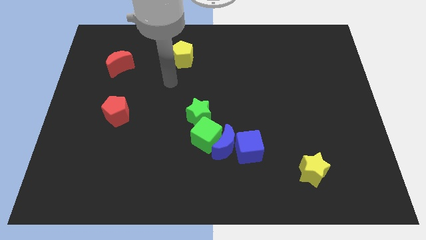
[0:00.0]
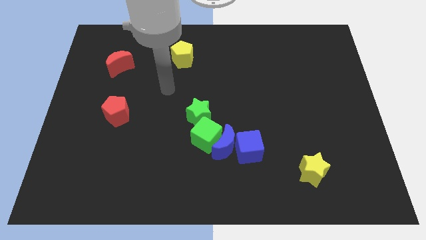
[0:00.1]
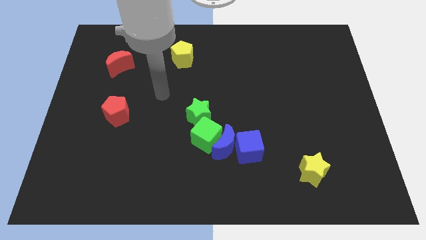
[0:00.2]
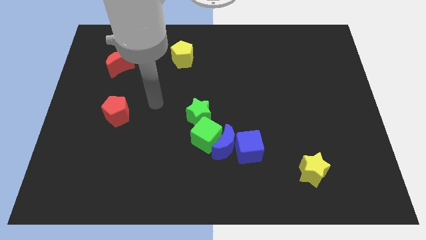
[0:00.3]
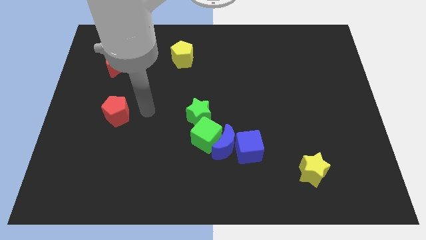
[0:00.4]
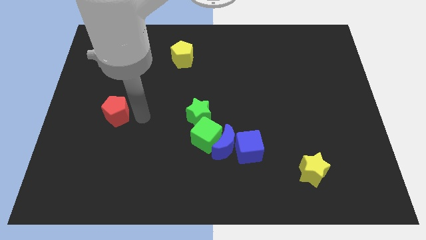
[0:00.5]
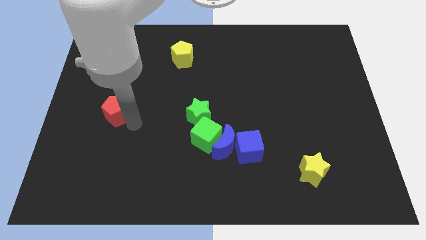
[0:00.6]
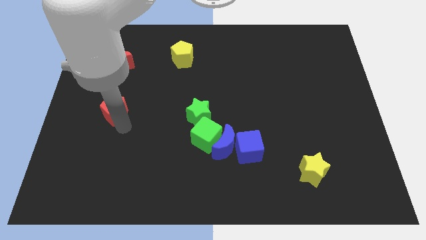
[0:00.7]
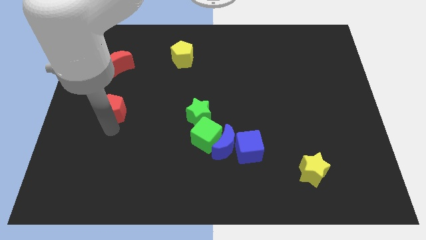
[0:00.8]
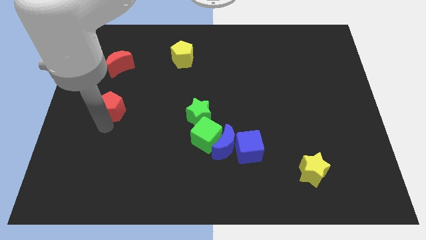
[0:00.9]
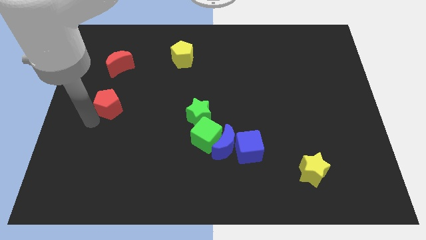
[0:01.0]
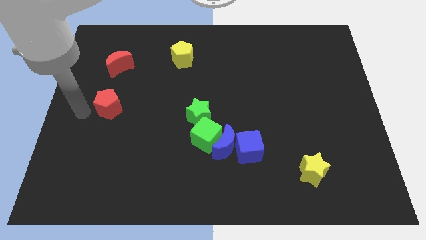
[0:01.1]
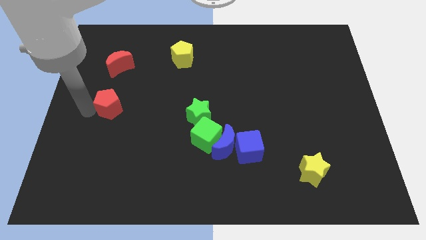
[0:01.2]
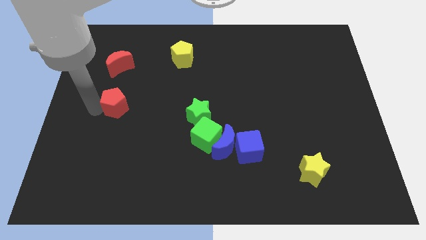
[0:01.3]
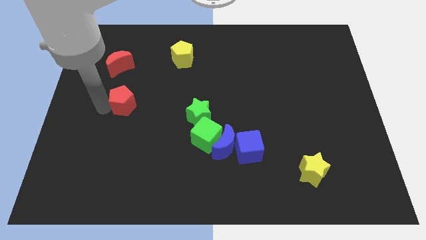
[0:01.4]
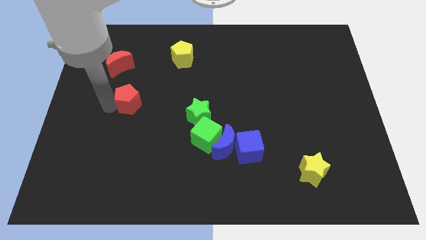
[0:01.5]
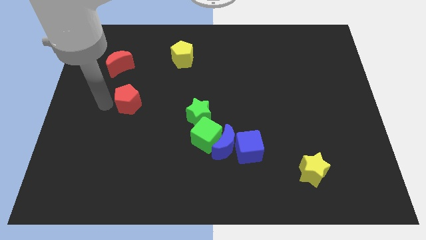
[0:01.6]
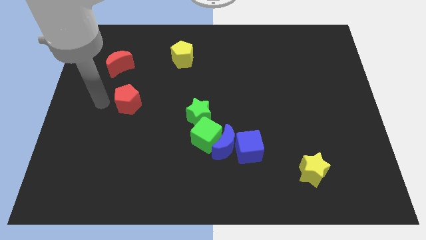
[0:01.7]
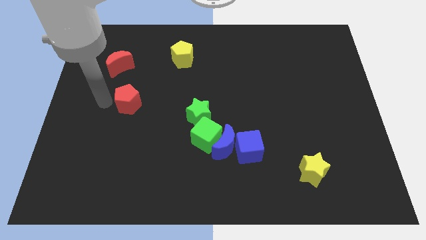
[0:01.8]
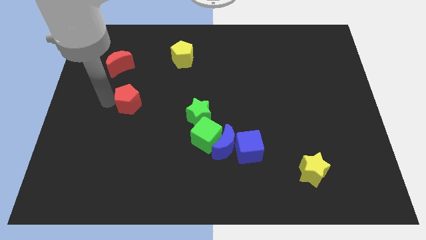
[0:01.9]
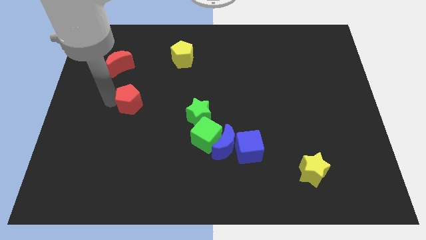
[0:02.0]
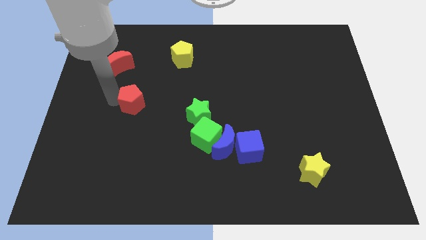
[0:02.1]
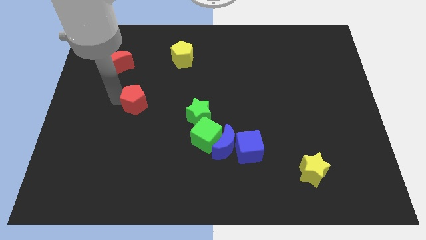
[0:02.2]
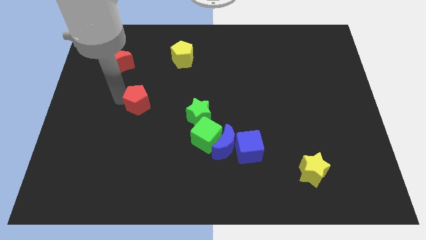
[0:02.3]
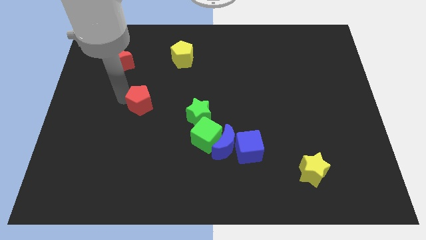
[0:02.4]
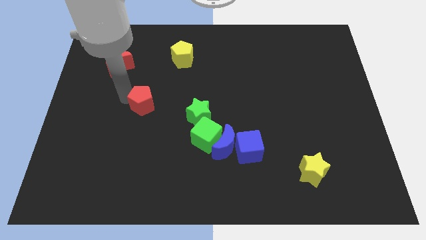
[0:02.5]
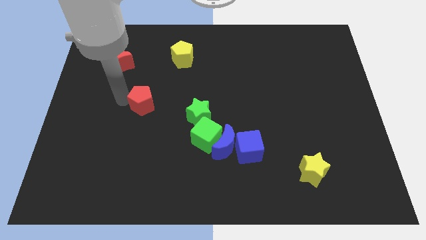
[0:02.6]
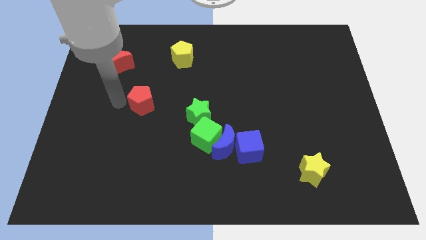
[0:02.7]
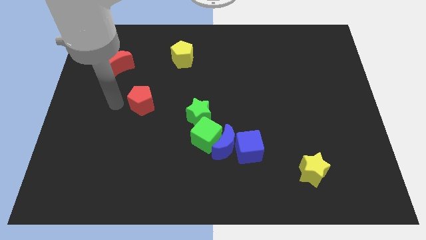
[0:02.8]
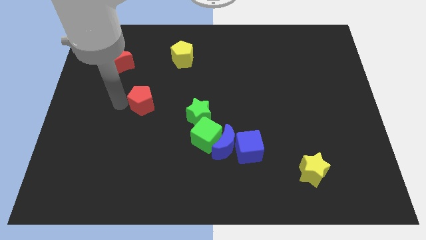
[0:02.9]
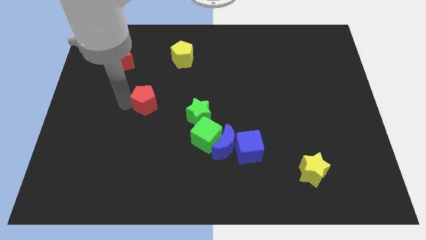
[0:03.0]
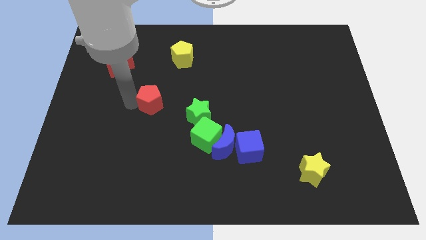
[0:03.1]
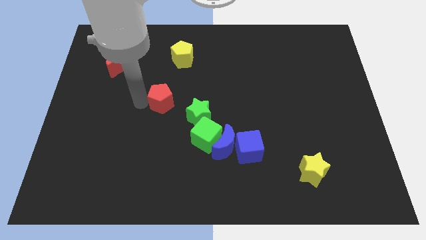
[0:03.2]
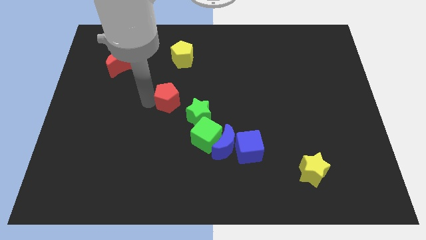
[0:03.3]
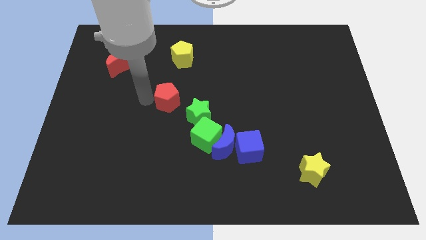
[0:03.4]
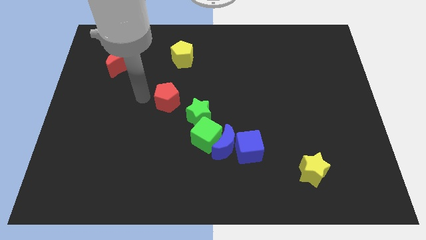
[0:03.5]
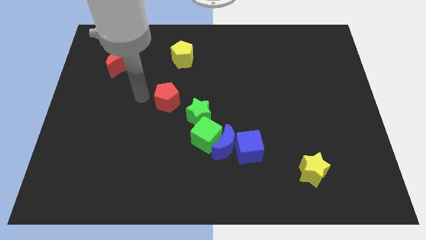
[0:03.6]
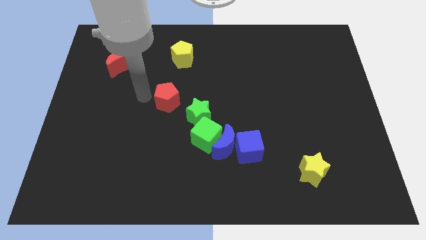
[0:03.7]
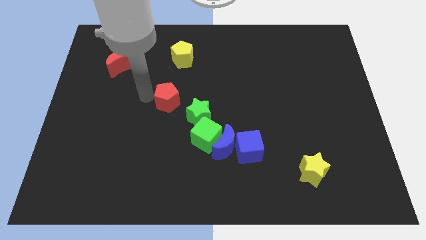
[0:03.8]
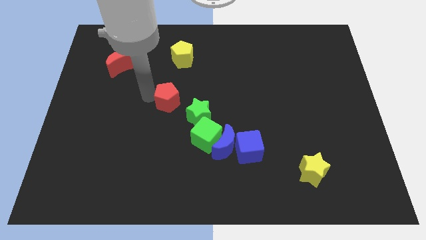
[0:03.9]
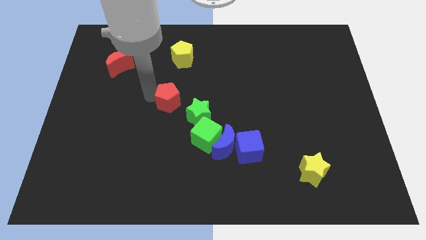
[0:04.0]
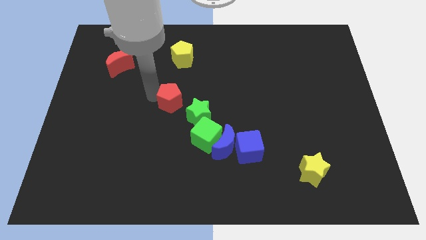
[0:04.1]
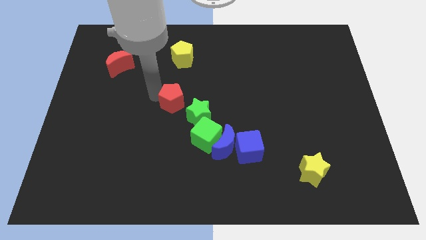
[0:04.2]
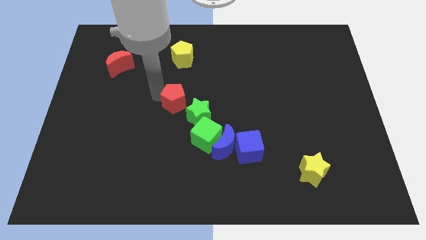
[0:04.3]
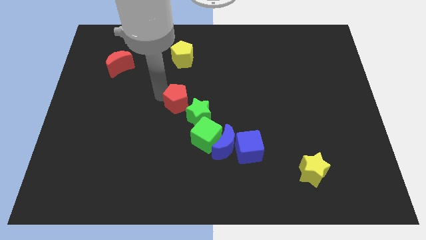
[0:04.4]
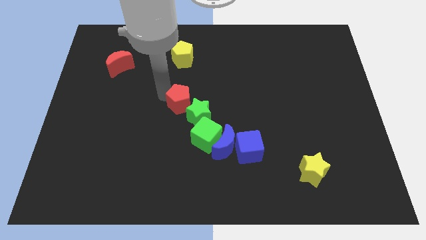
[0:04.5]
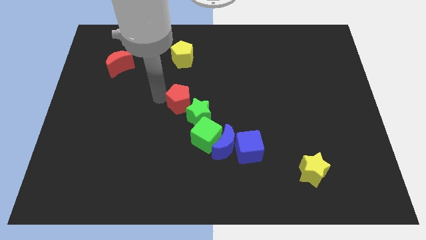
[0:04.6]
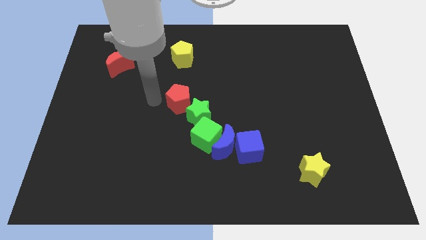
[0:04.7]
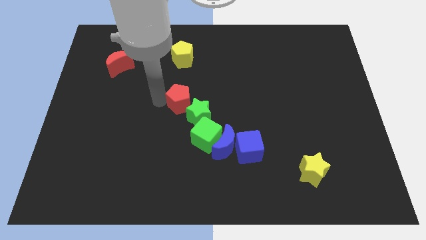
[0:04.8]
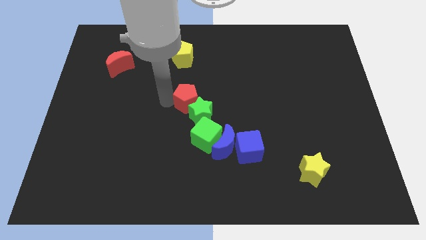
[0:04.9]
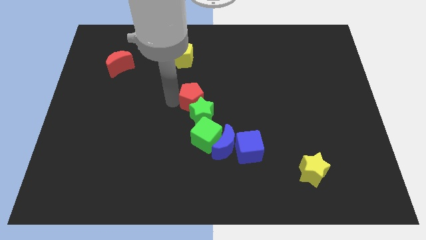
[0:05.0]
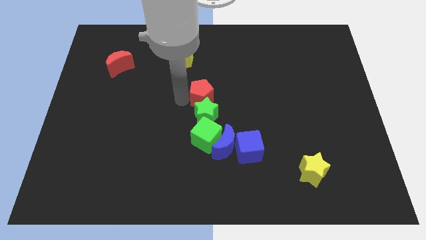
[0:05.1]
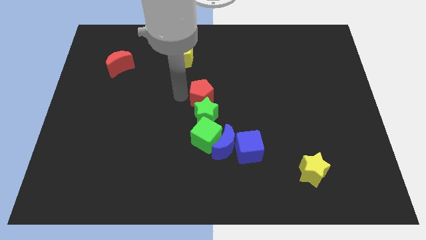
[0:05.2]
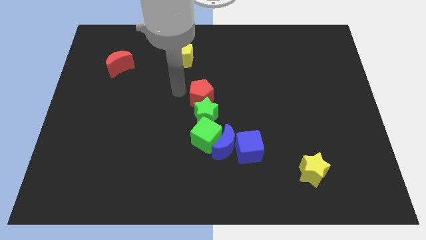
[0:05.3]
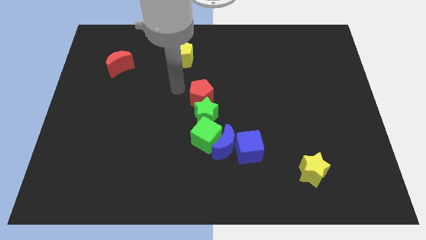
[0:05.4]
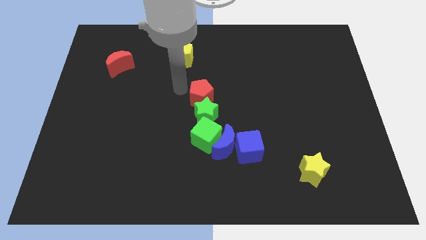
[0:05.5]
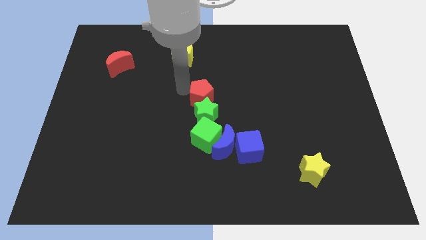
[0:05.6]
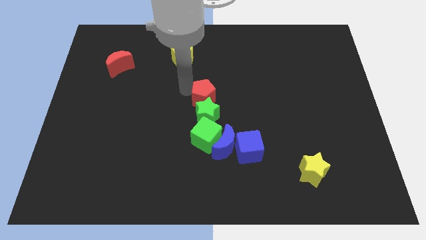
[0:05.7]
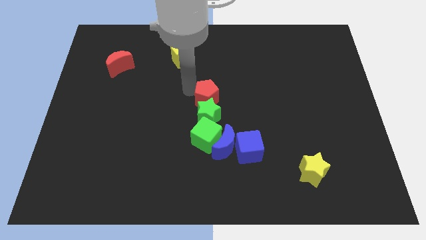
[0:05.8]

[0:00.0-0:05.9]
push the red pentagon to the right

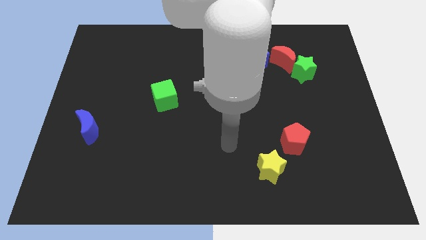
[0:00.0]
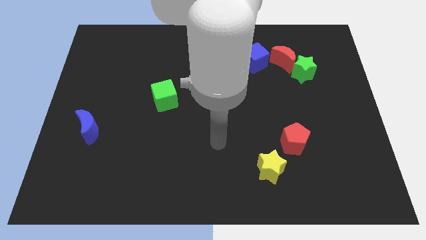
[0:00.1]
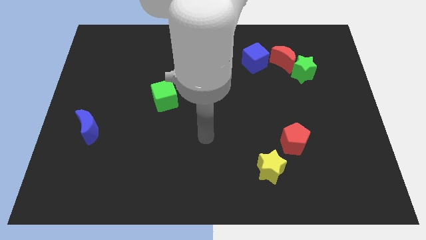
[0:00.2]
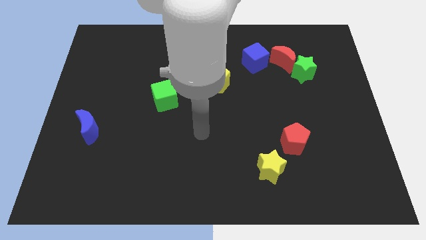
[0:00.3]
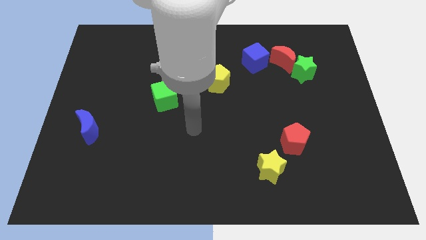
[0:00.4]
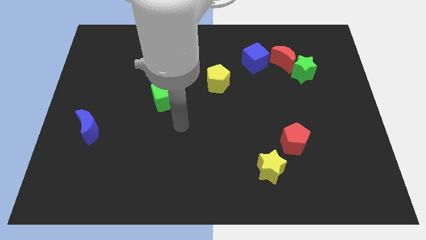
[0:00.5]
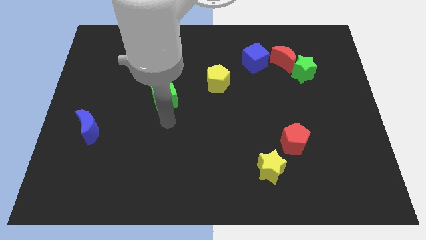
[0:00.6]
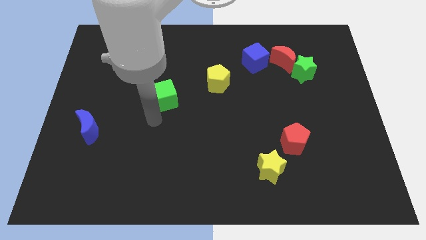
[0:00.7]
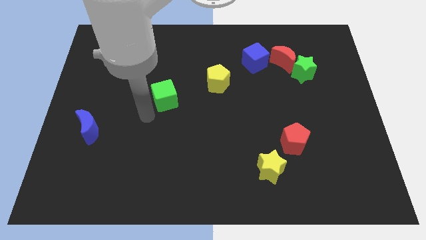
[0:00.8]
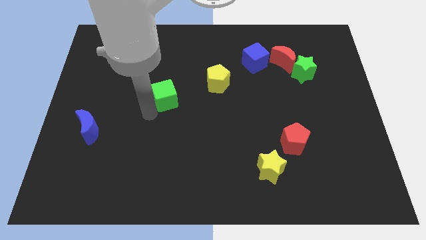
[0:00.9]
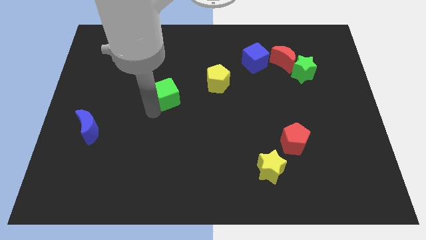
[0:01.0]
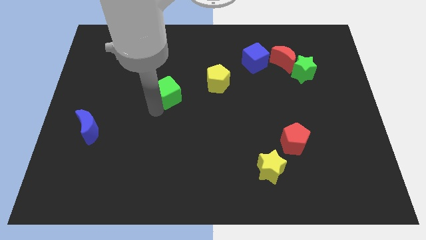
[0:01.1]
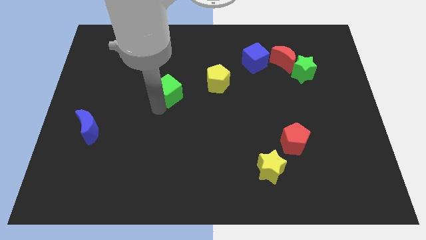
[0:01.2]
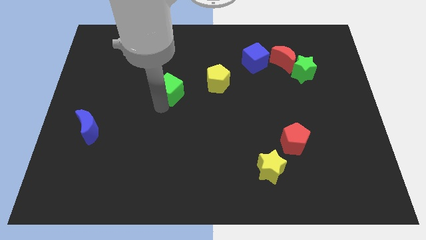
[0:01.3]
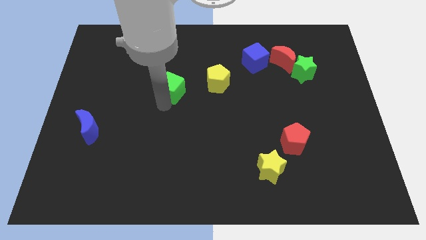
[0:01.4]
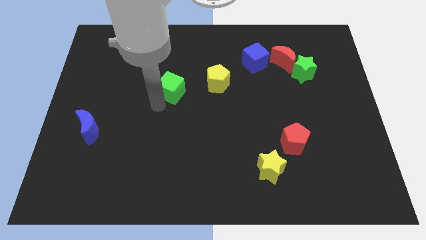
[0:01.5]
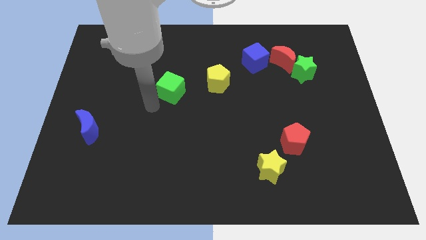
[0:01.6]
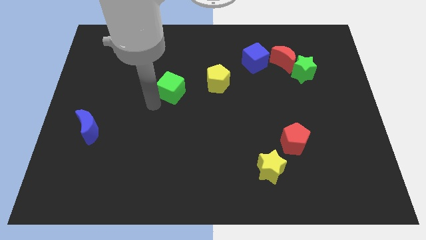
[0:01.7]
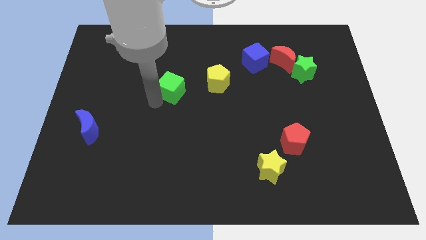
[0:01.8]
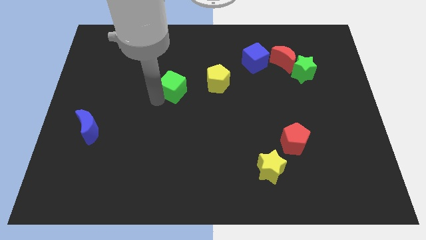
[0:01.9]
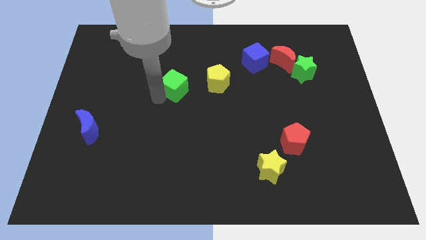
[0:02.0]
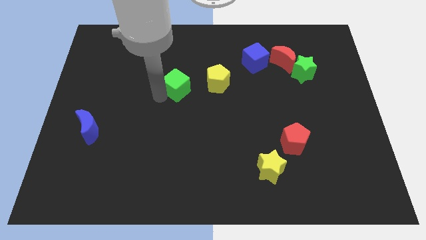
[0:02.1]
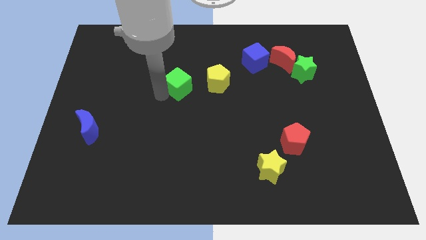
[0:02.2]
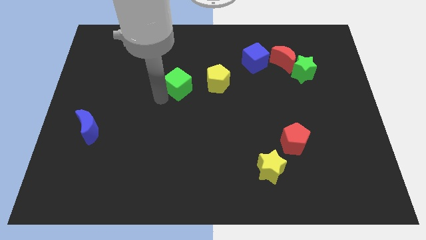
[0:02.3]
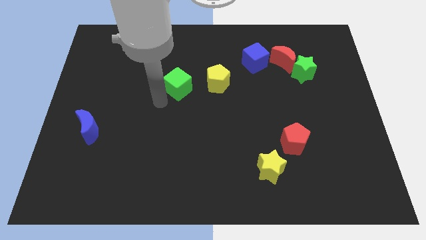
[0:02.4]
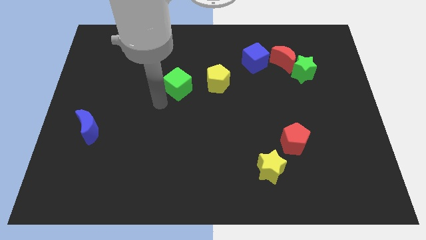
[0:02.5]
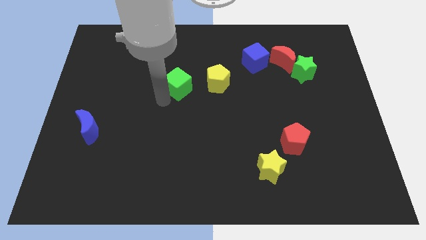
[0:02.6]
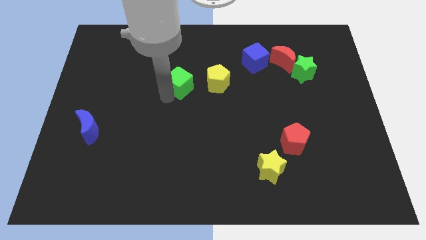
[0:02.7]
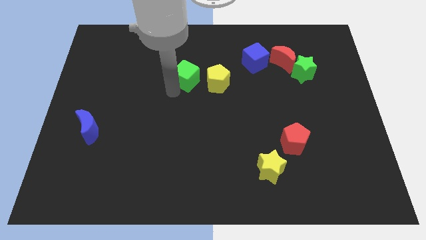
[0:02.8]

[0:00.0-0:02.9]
slightly slide the green cube upwards and right diagonally
